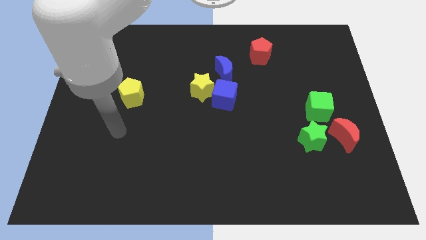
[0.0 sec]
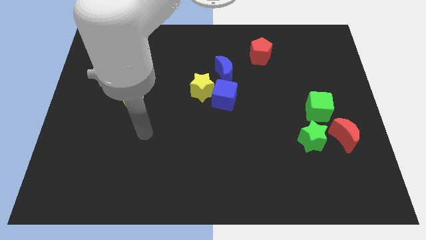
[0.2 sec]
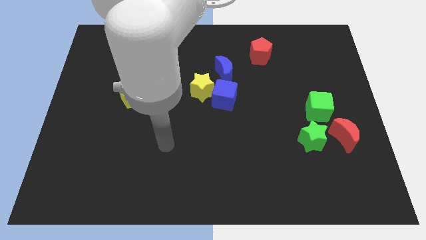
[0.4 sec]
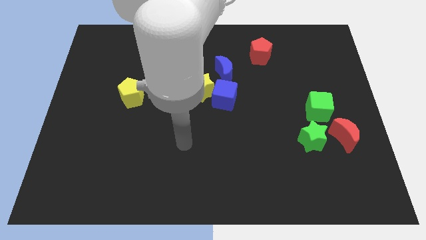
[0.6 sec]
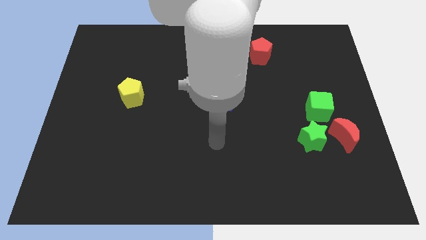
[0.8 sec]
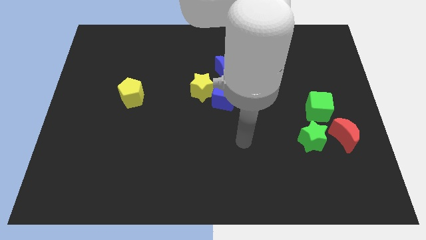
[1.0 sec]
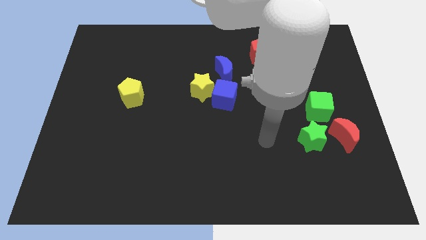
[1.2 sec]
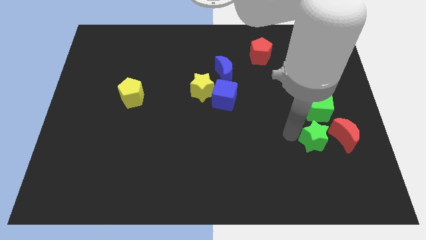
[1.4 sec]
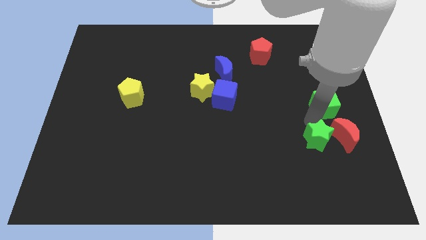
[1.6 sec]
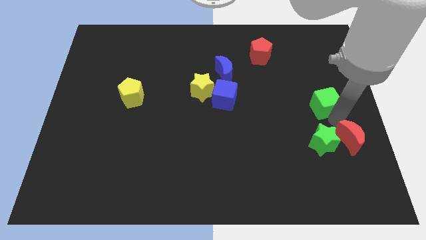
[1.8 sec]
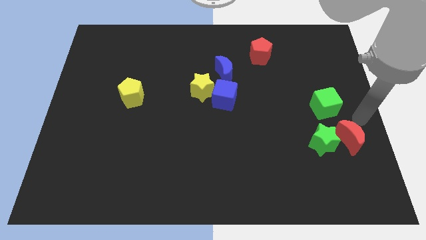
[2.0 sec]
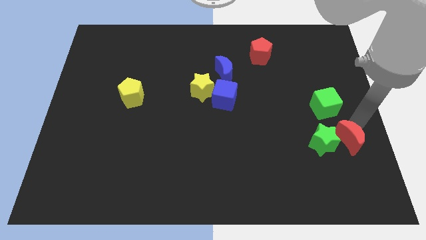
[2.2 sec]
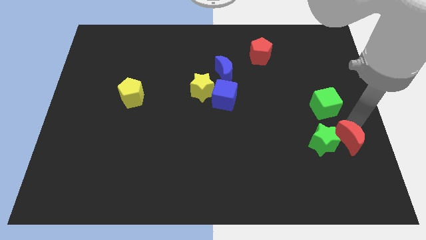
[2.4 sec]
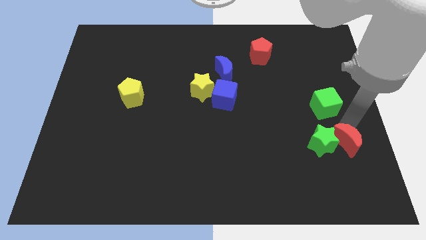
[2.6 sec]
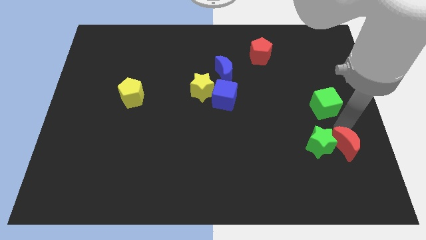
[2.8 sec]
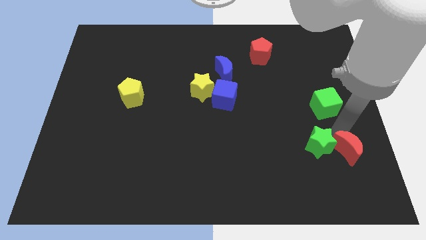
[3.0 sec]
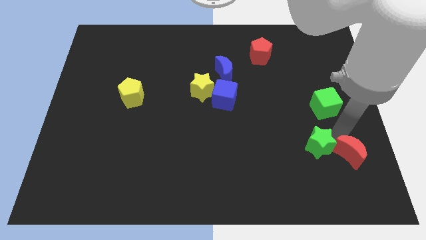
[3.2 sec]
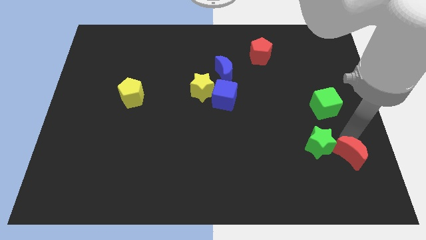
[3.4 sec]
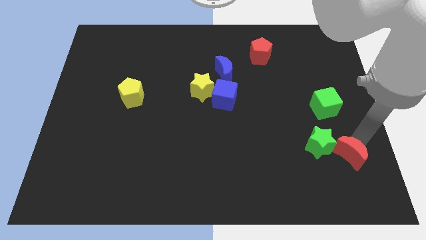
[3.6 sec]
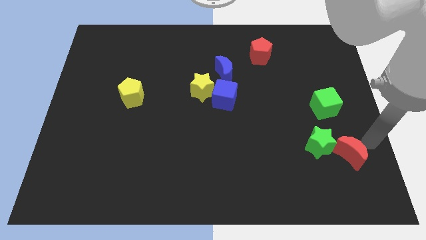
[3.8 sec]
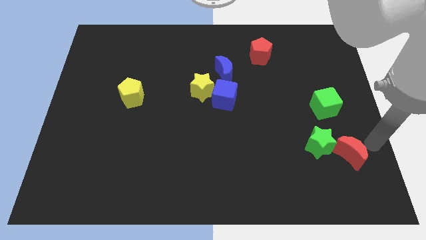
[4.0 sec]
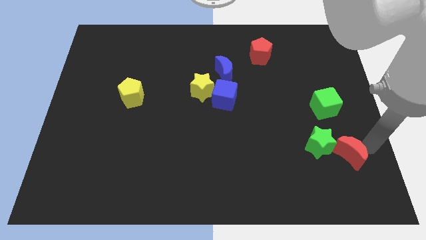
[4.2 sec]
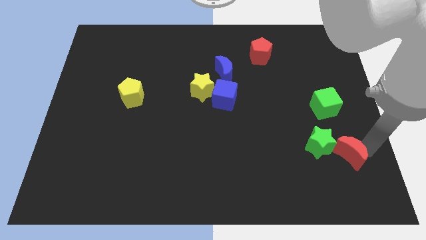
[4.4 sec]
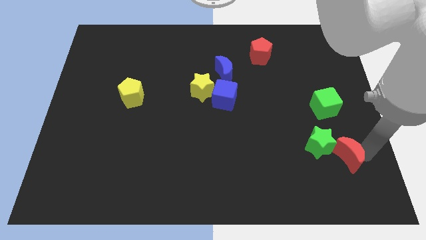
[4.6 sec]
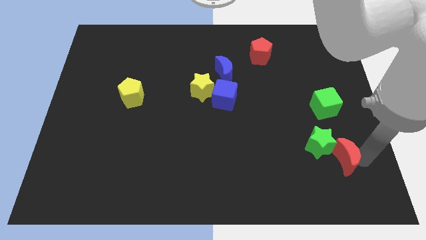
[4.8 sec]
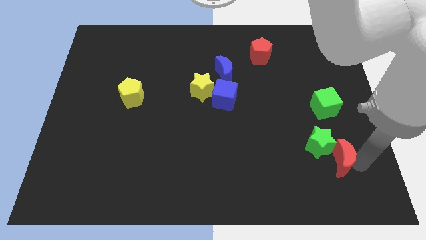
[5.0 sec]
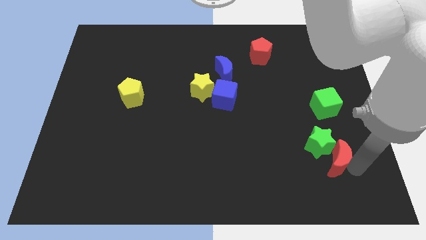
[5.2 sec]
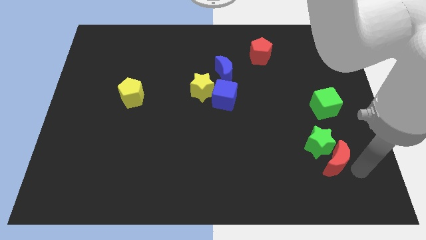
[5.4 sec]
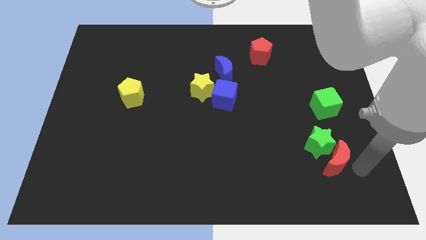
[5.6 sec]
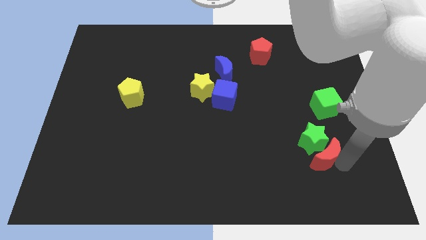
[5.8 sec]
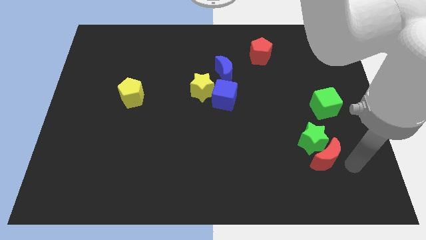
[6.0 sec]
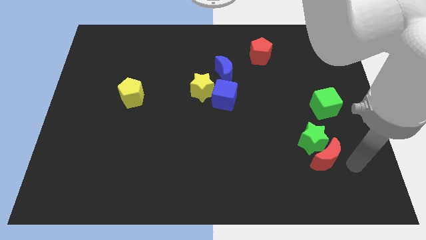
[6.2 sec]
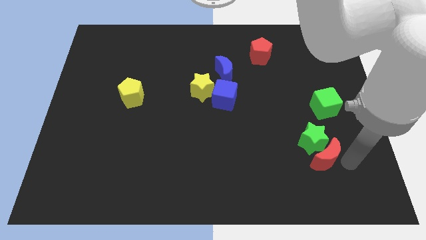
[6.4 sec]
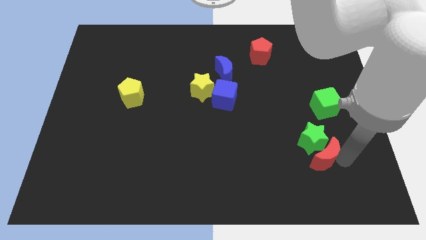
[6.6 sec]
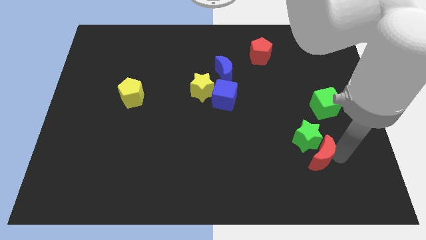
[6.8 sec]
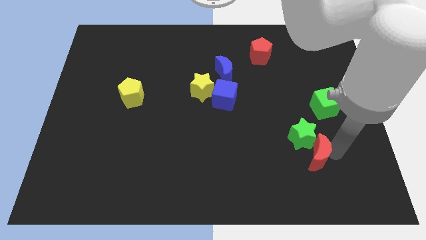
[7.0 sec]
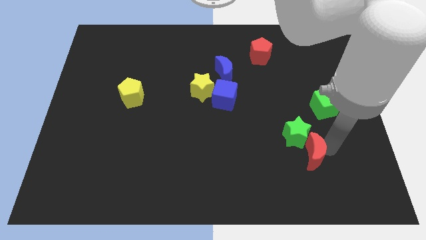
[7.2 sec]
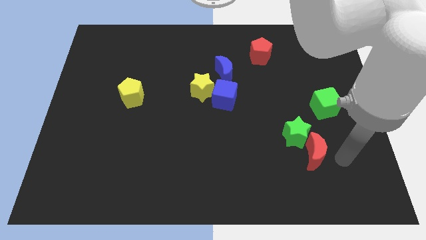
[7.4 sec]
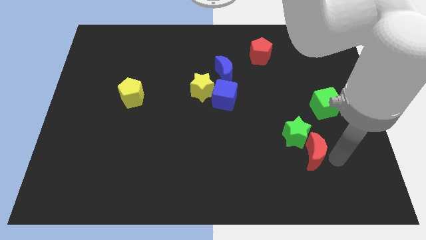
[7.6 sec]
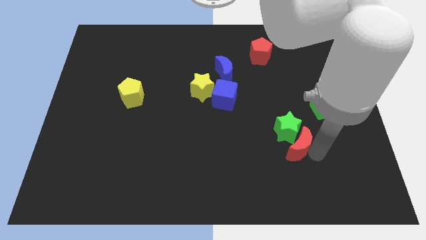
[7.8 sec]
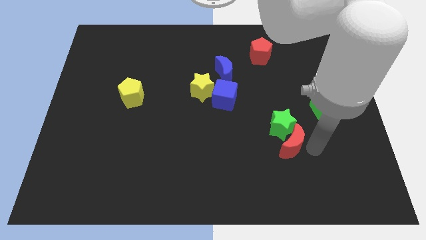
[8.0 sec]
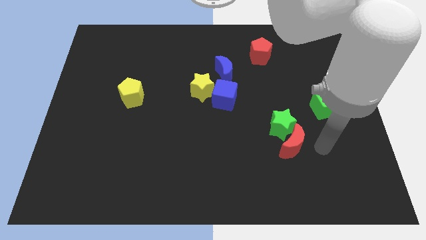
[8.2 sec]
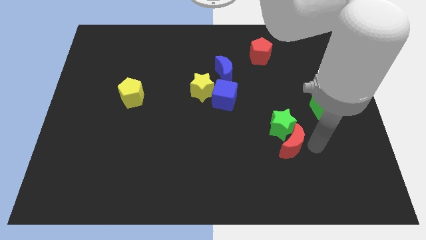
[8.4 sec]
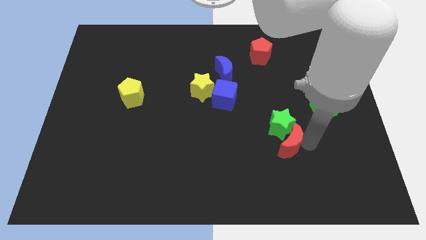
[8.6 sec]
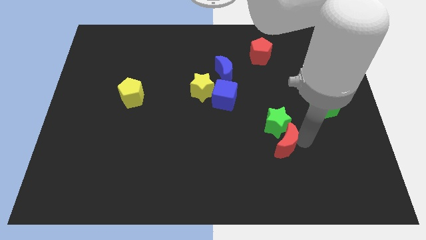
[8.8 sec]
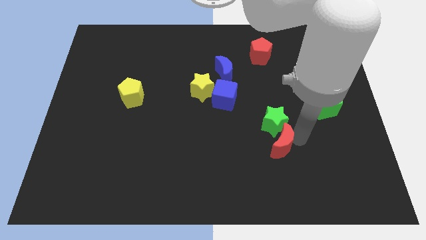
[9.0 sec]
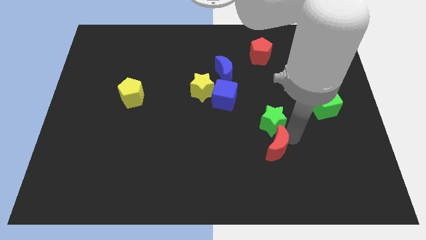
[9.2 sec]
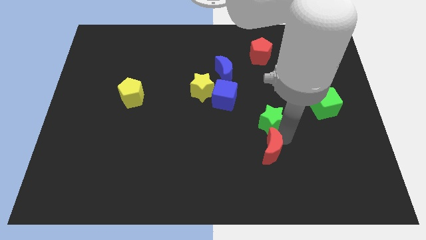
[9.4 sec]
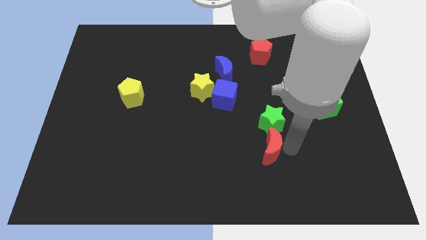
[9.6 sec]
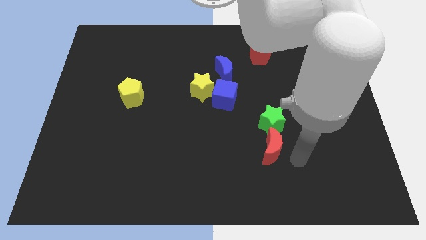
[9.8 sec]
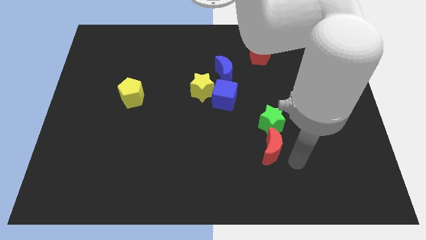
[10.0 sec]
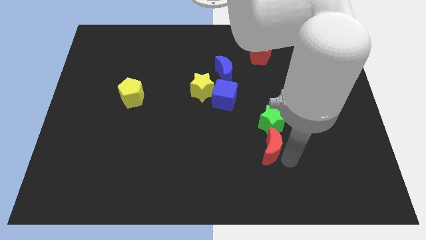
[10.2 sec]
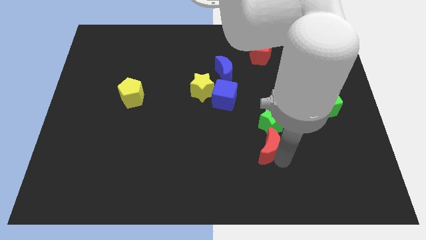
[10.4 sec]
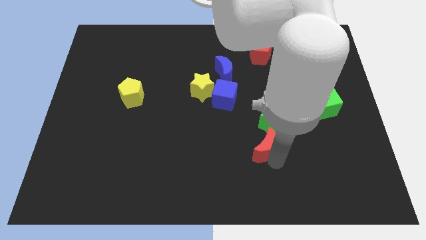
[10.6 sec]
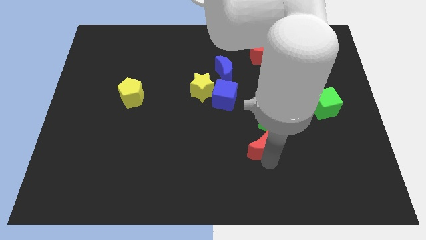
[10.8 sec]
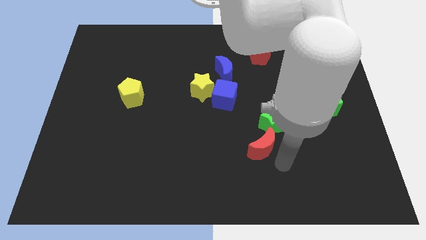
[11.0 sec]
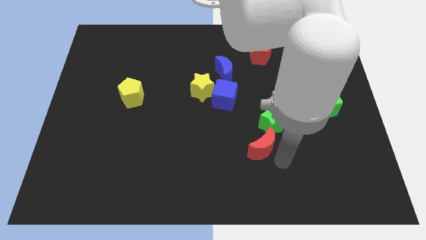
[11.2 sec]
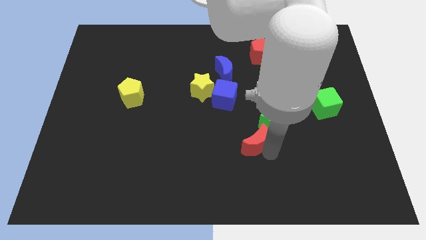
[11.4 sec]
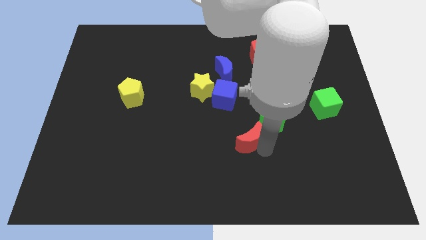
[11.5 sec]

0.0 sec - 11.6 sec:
push the red moon to the left

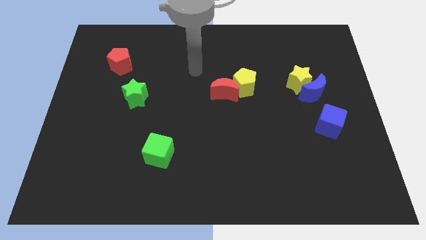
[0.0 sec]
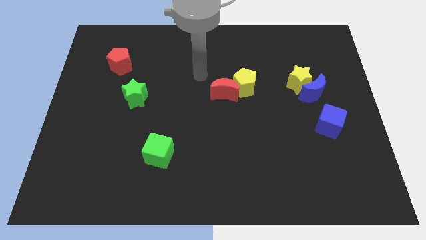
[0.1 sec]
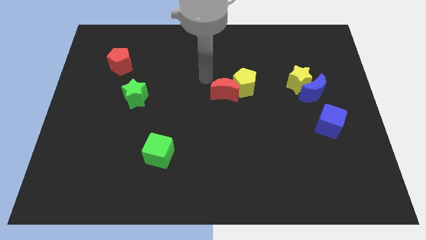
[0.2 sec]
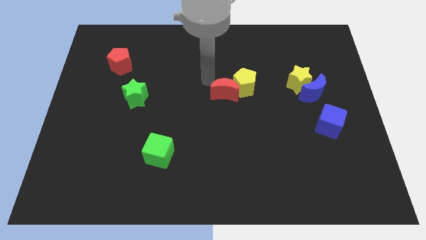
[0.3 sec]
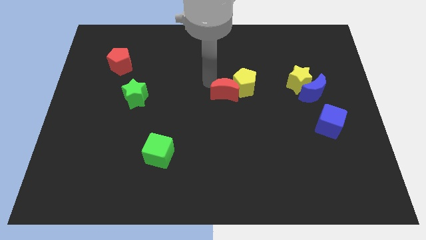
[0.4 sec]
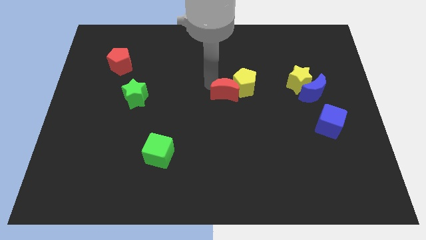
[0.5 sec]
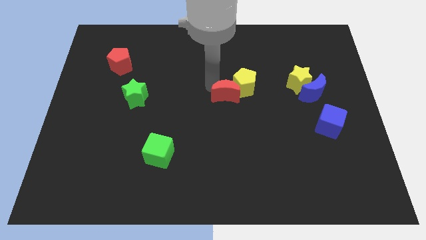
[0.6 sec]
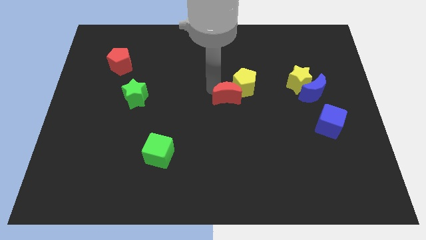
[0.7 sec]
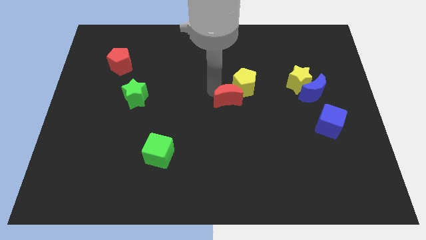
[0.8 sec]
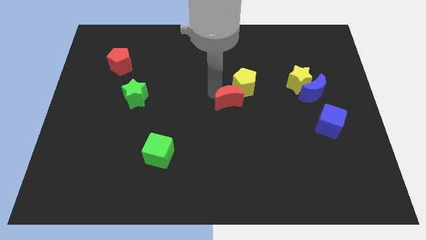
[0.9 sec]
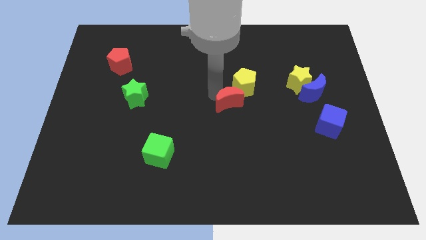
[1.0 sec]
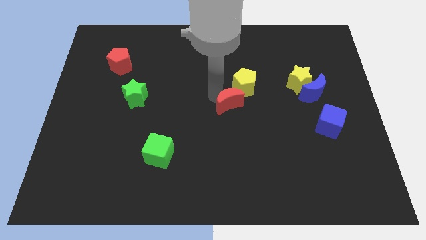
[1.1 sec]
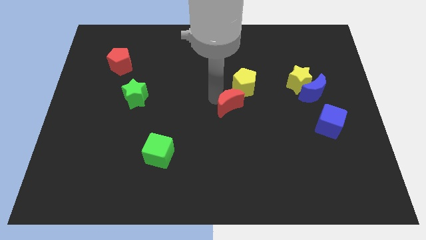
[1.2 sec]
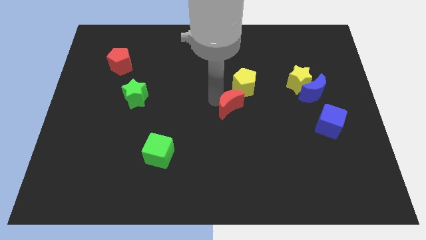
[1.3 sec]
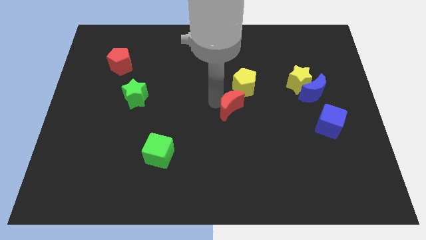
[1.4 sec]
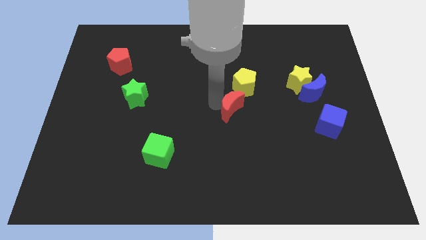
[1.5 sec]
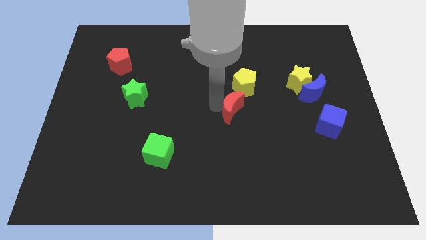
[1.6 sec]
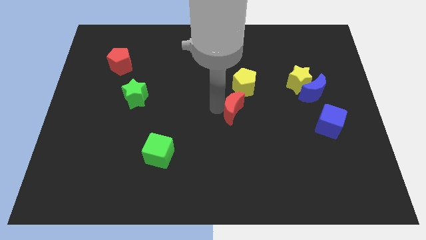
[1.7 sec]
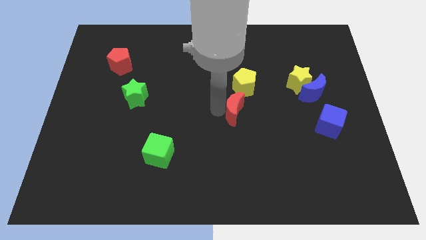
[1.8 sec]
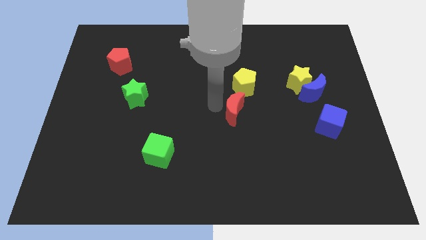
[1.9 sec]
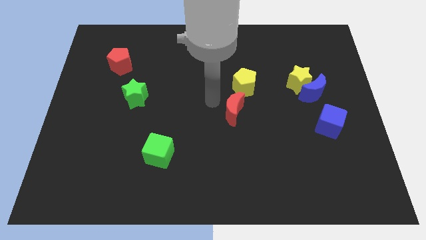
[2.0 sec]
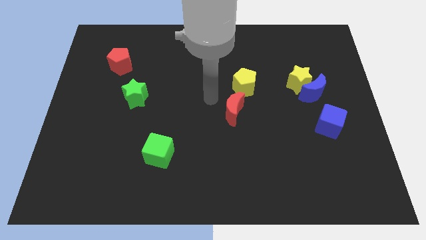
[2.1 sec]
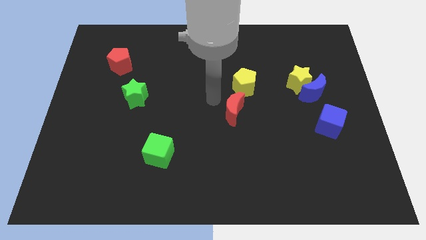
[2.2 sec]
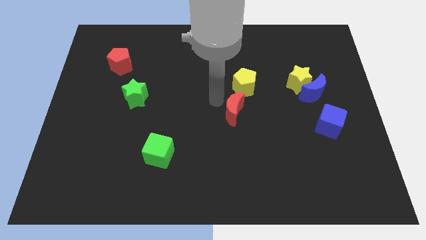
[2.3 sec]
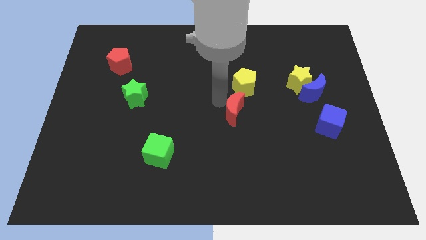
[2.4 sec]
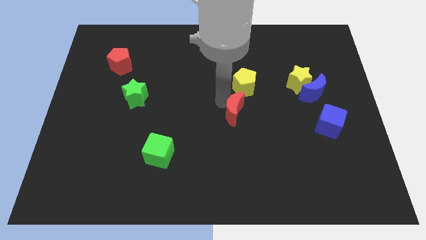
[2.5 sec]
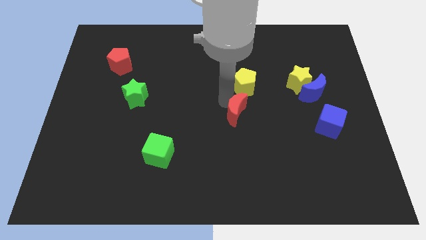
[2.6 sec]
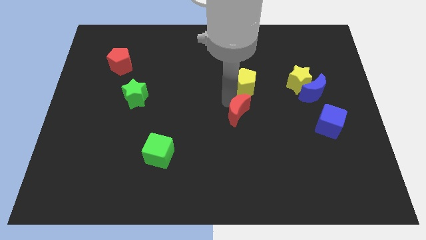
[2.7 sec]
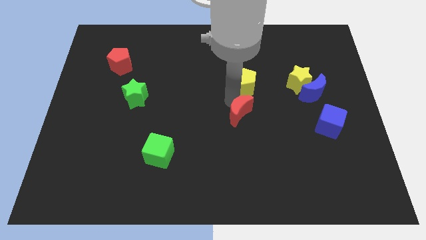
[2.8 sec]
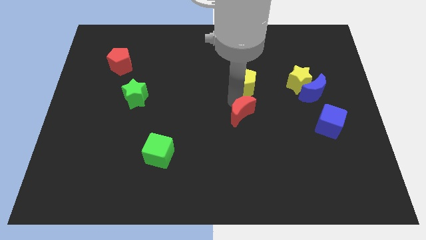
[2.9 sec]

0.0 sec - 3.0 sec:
push the red moon a little bit downwards and then to the right
